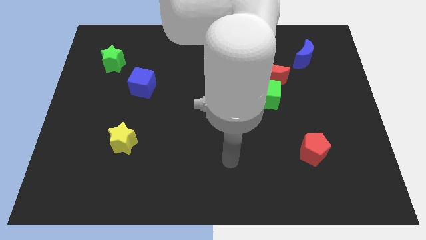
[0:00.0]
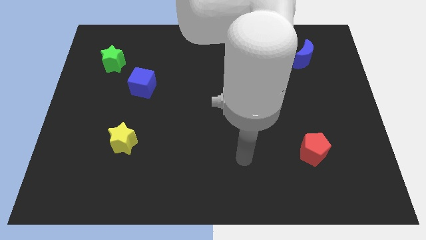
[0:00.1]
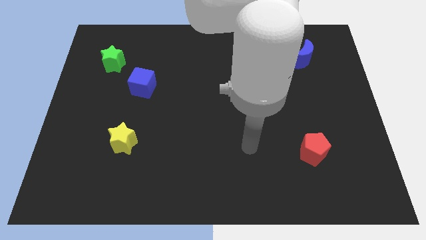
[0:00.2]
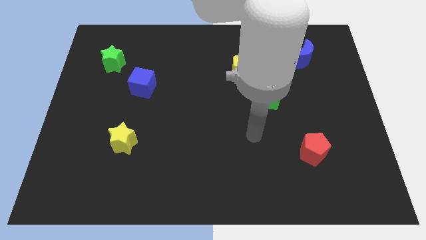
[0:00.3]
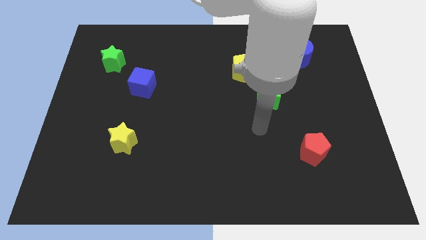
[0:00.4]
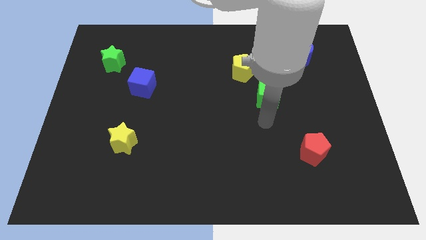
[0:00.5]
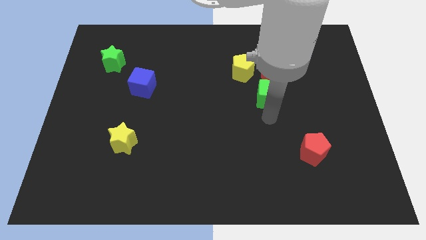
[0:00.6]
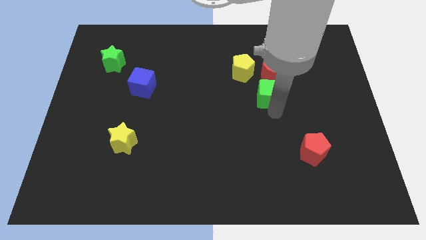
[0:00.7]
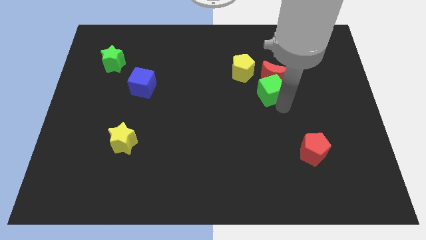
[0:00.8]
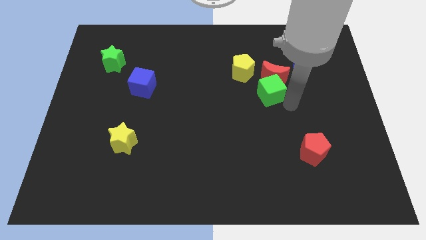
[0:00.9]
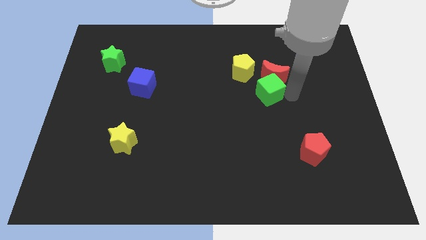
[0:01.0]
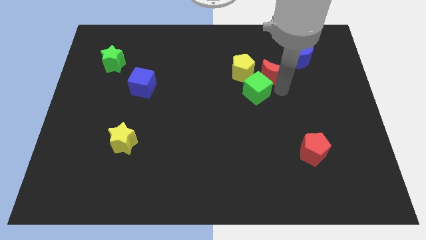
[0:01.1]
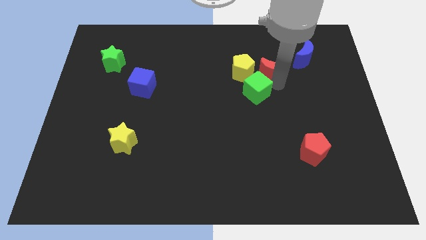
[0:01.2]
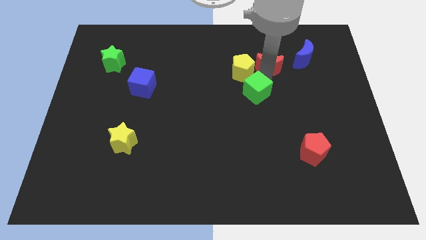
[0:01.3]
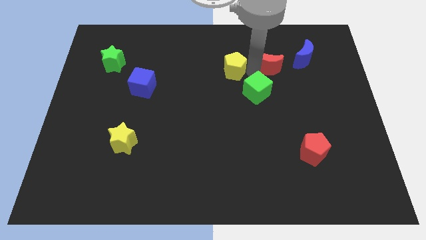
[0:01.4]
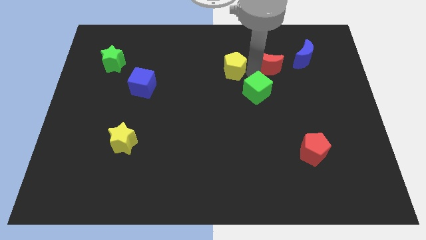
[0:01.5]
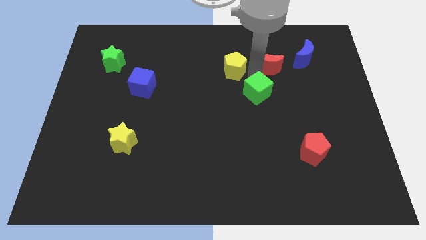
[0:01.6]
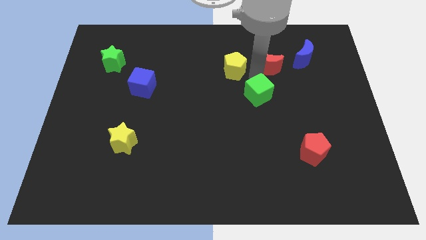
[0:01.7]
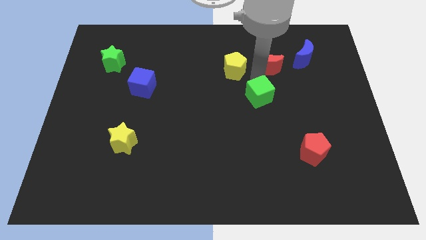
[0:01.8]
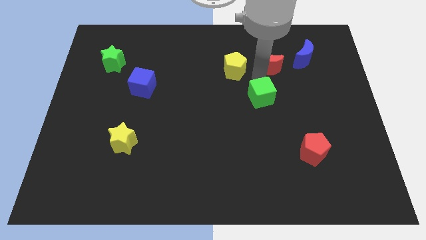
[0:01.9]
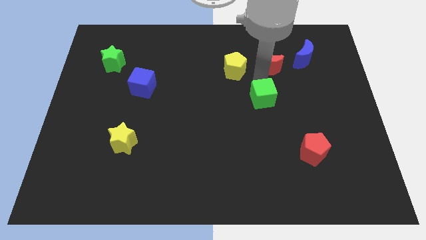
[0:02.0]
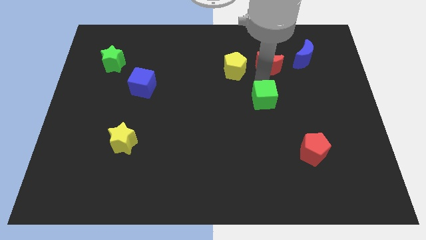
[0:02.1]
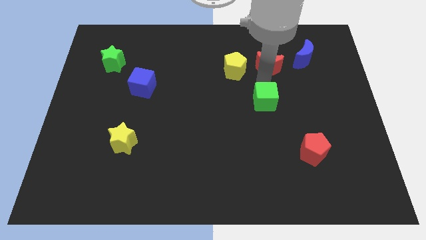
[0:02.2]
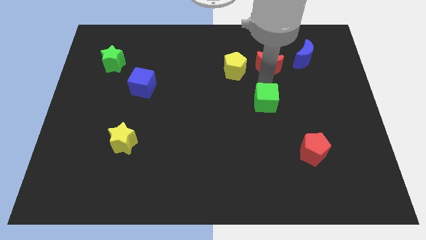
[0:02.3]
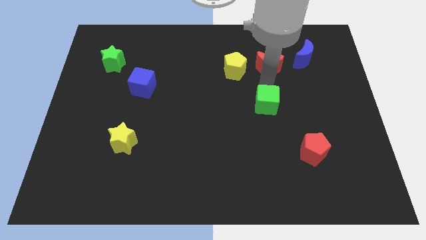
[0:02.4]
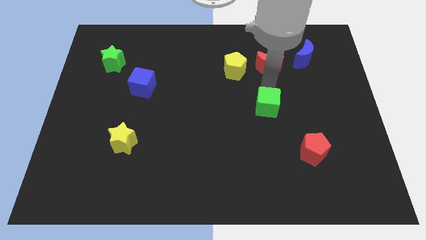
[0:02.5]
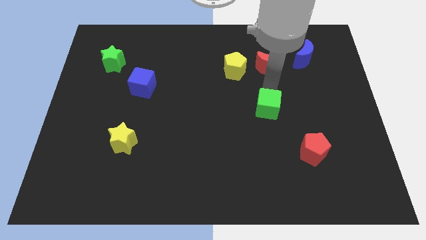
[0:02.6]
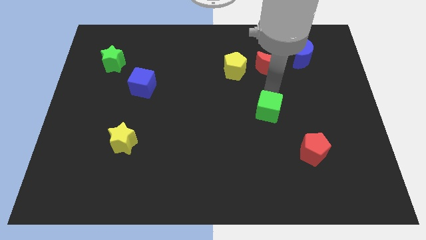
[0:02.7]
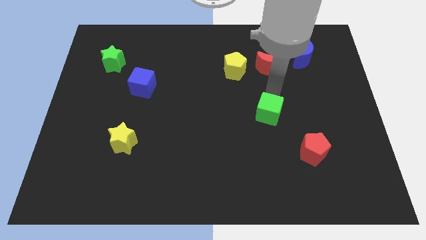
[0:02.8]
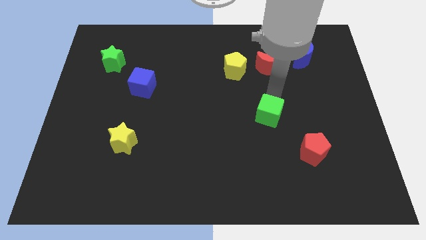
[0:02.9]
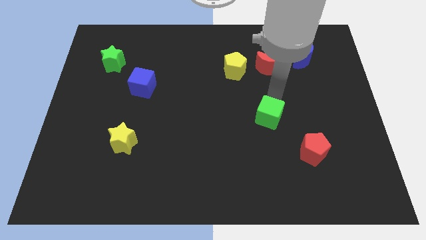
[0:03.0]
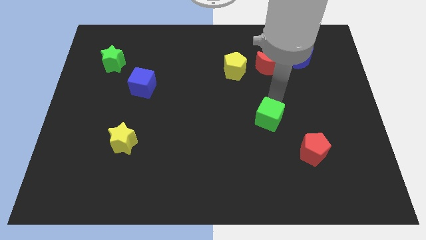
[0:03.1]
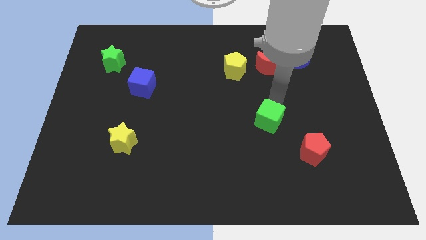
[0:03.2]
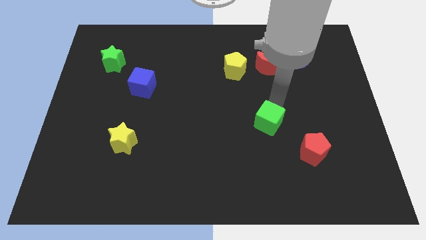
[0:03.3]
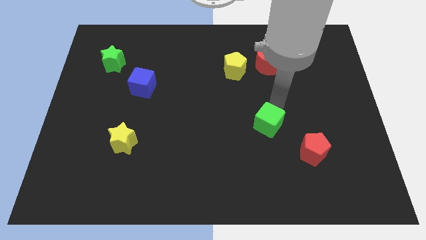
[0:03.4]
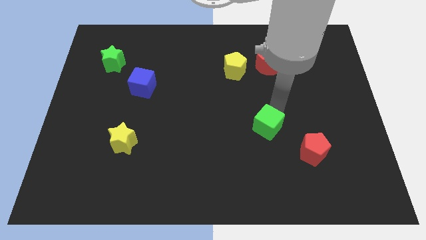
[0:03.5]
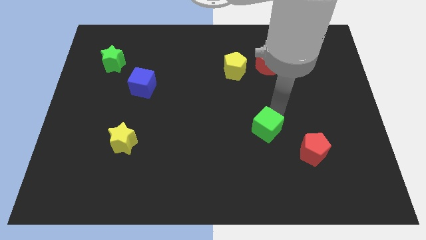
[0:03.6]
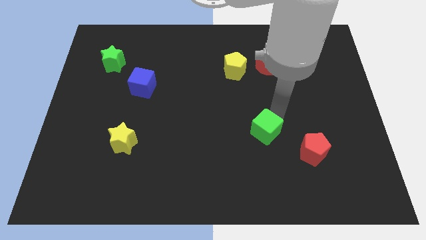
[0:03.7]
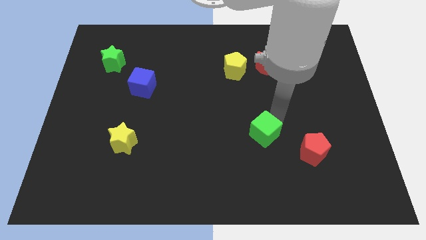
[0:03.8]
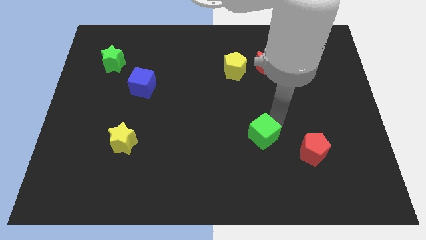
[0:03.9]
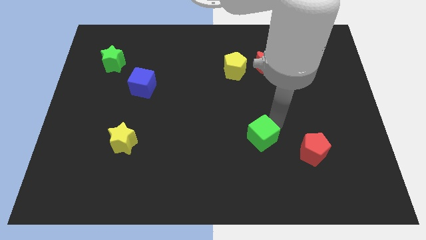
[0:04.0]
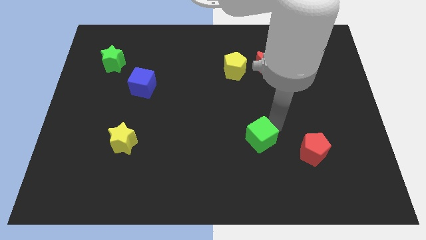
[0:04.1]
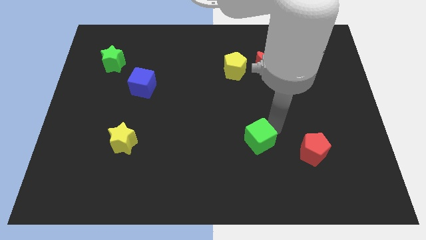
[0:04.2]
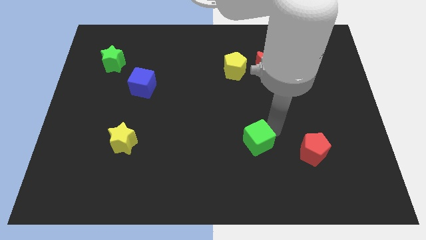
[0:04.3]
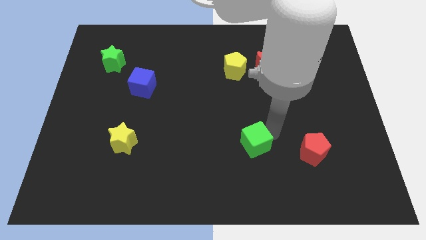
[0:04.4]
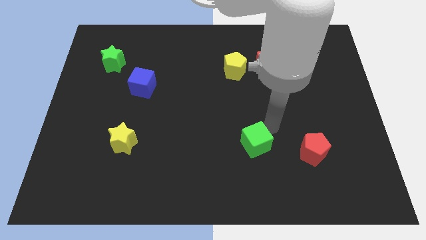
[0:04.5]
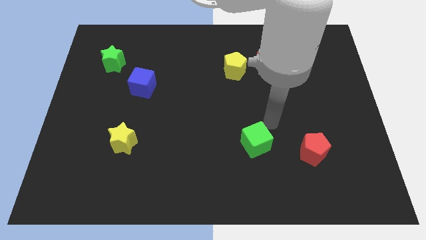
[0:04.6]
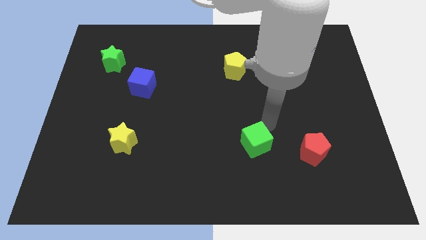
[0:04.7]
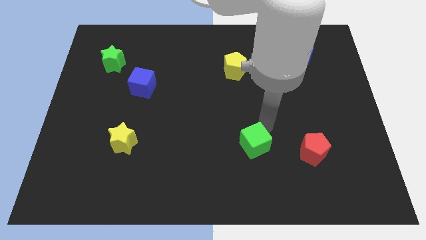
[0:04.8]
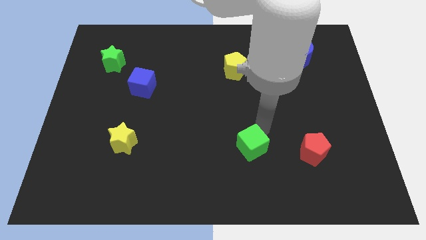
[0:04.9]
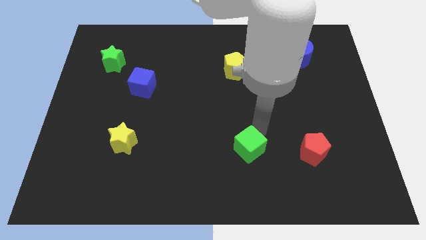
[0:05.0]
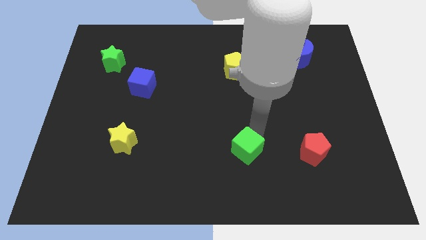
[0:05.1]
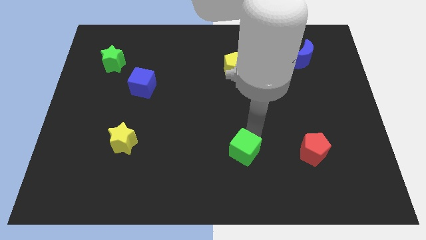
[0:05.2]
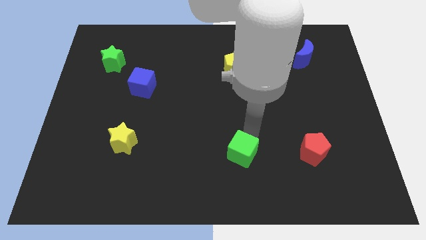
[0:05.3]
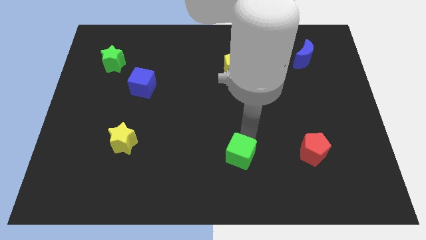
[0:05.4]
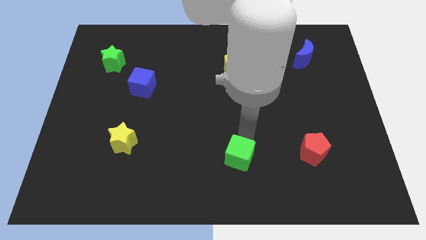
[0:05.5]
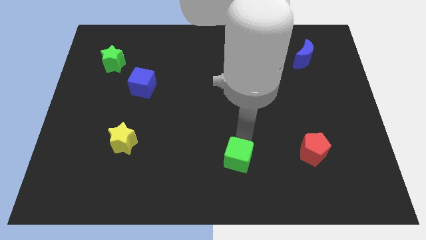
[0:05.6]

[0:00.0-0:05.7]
move the green cube to the bottom

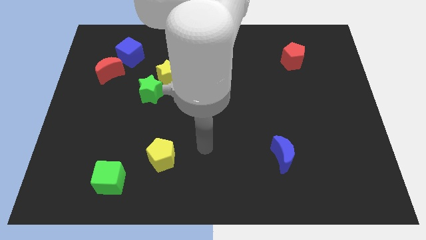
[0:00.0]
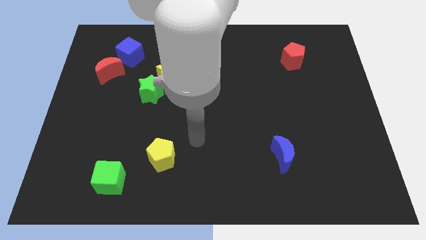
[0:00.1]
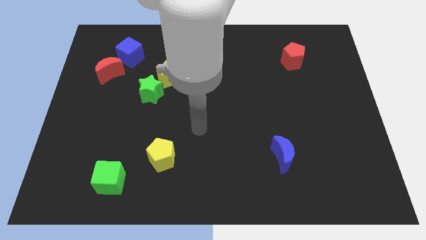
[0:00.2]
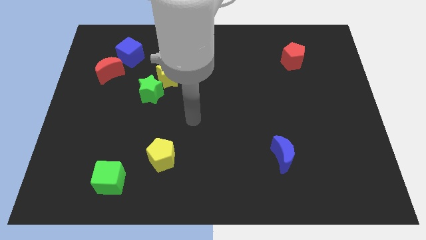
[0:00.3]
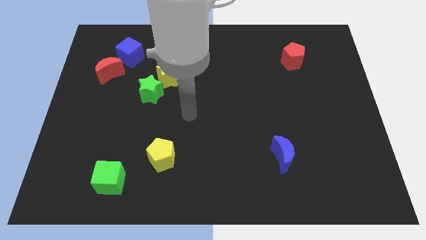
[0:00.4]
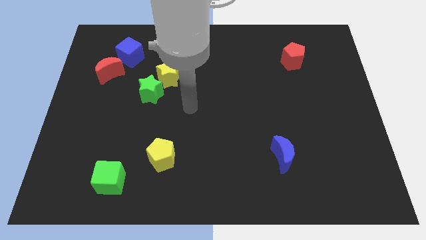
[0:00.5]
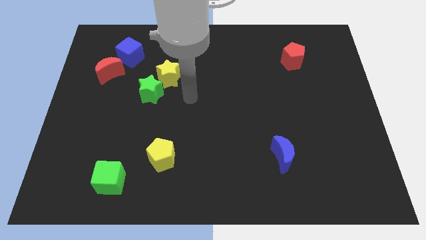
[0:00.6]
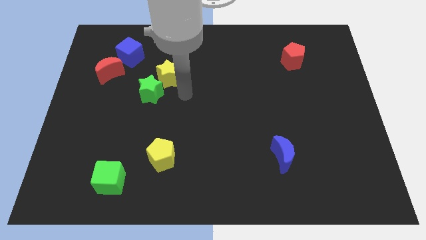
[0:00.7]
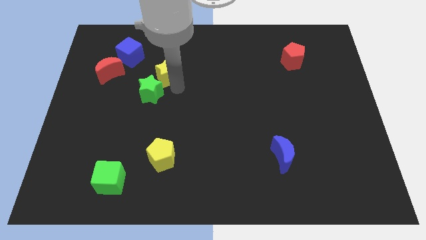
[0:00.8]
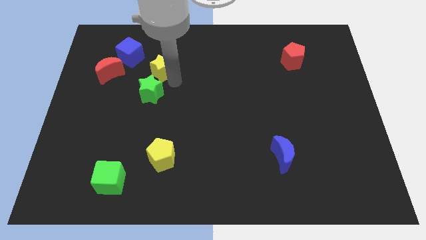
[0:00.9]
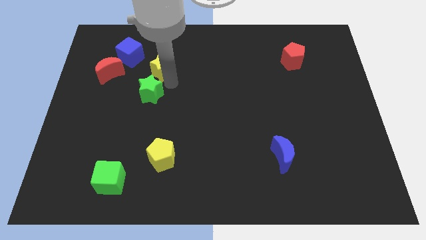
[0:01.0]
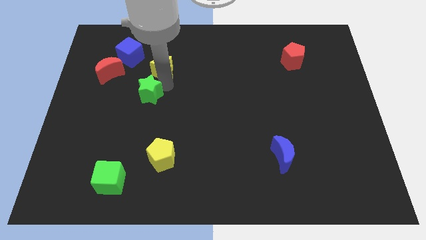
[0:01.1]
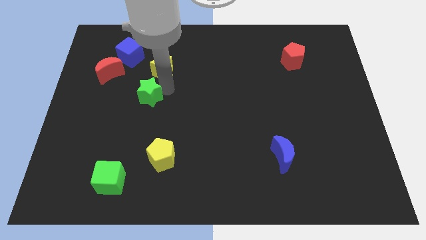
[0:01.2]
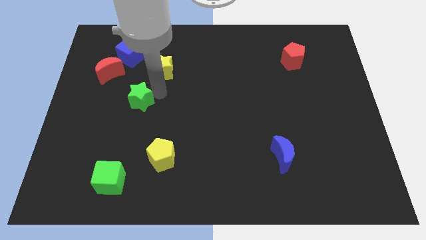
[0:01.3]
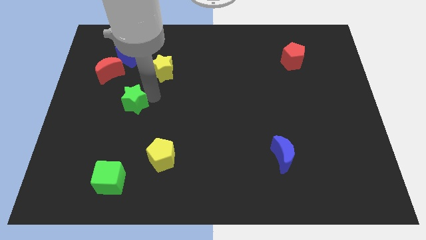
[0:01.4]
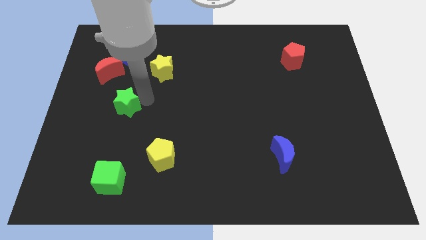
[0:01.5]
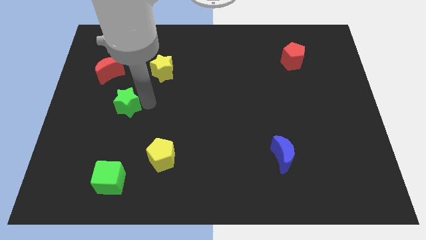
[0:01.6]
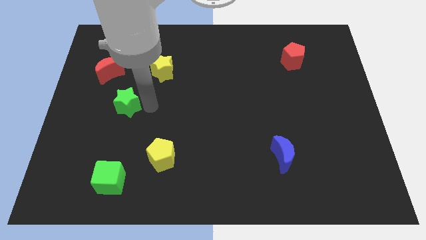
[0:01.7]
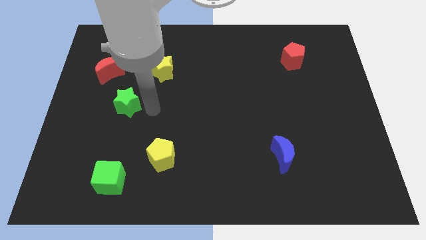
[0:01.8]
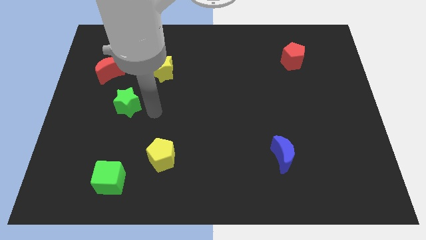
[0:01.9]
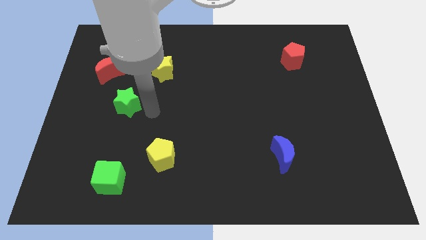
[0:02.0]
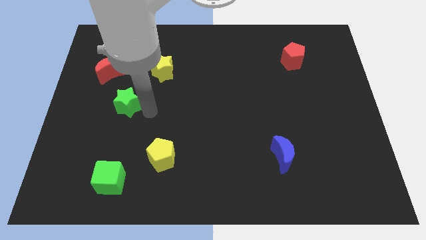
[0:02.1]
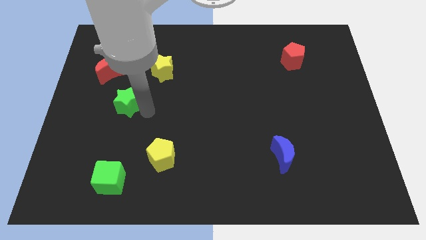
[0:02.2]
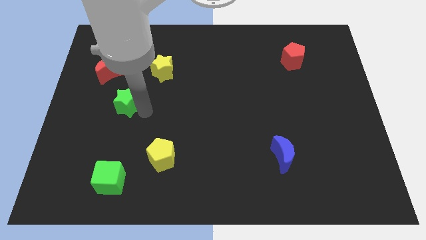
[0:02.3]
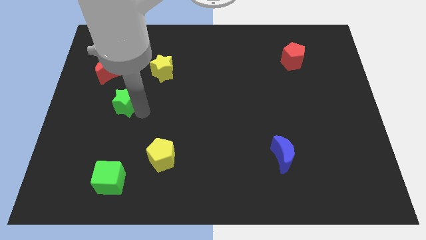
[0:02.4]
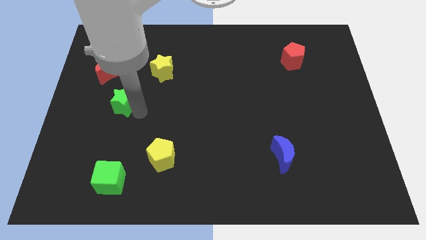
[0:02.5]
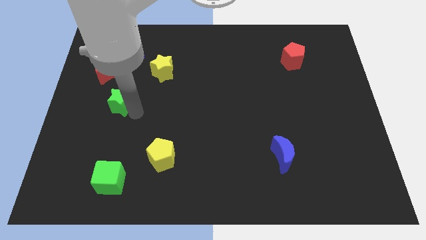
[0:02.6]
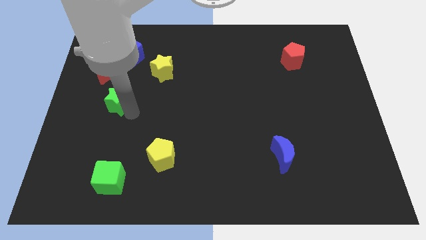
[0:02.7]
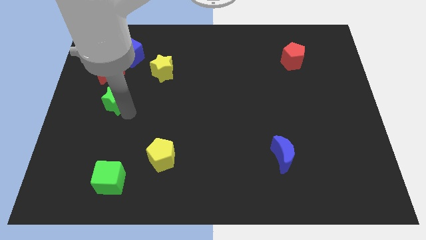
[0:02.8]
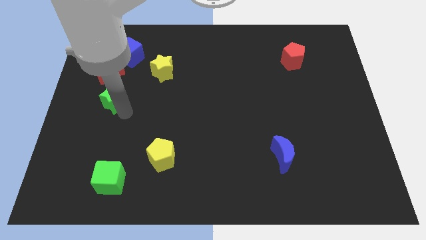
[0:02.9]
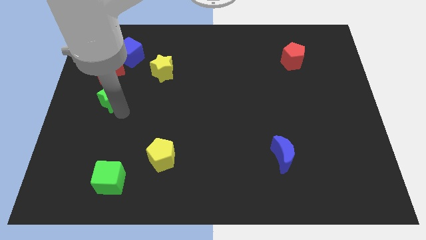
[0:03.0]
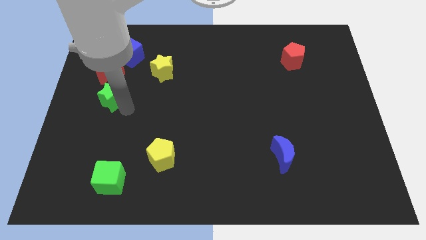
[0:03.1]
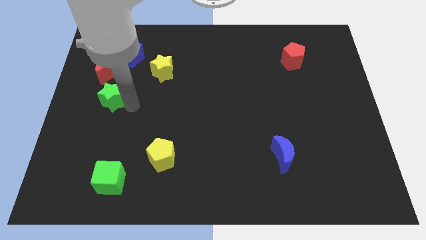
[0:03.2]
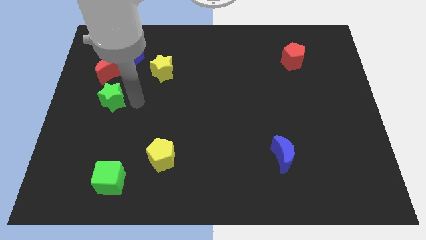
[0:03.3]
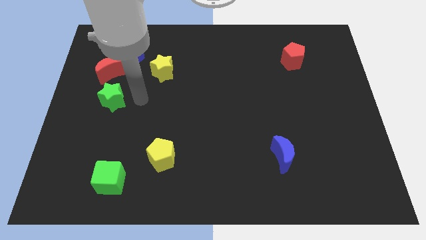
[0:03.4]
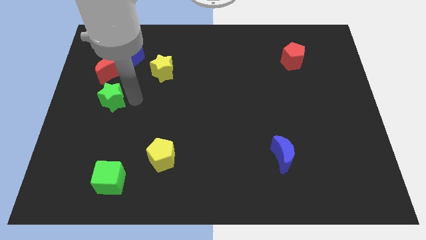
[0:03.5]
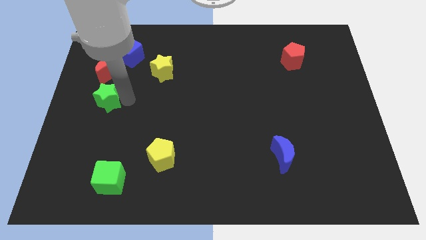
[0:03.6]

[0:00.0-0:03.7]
put the green star to the left side of the board
